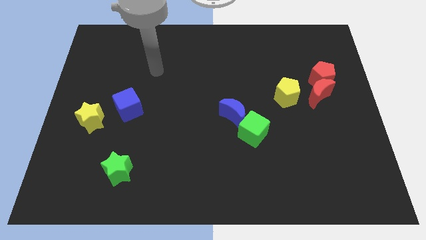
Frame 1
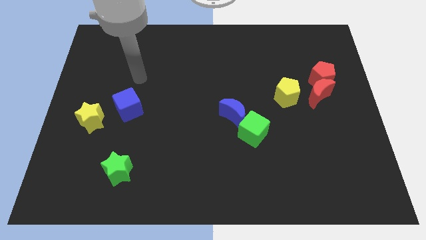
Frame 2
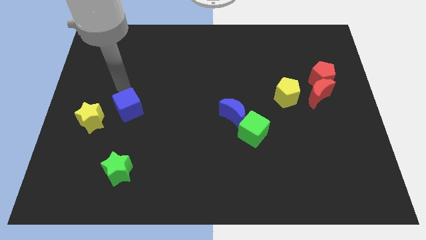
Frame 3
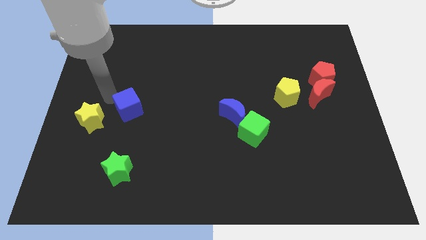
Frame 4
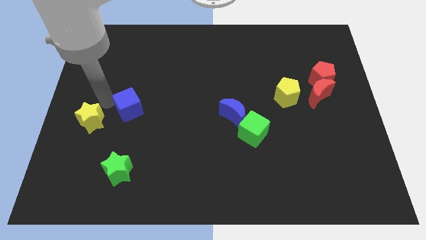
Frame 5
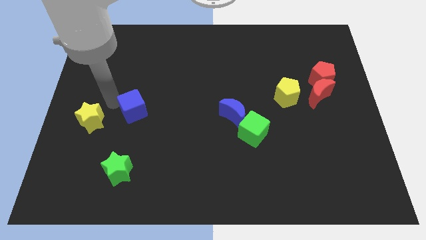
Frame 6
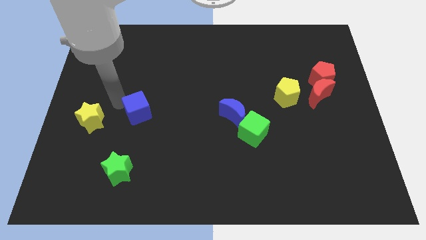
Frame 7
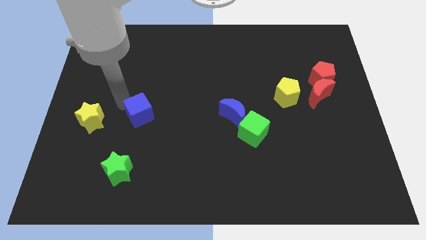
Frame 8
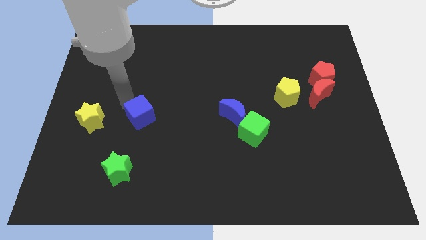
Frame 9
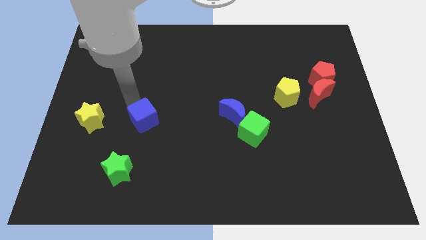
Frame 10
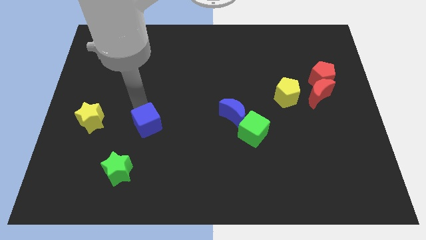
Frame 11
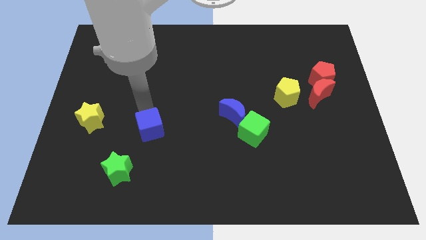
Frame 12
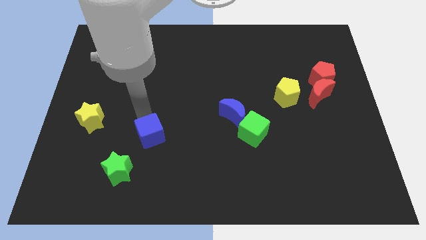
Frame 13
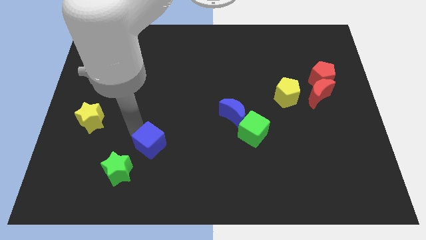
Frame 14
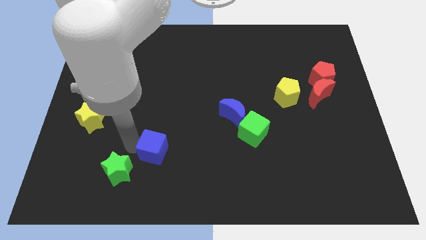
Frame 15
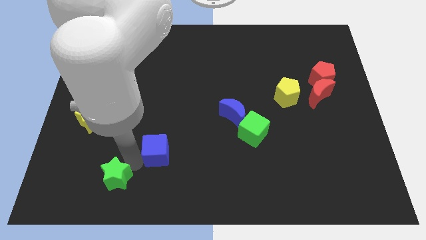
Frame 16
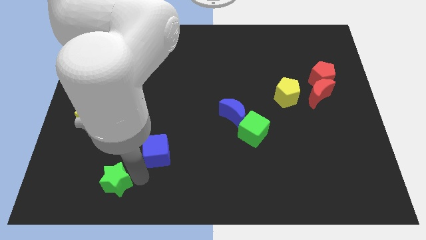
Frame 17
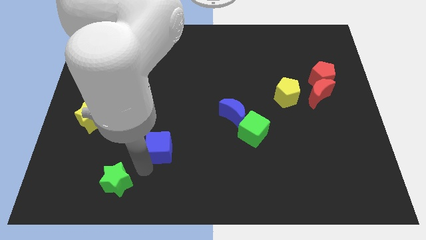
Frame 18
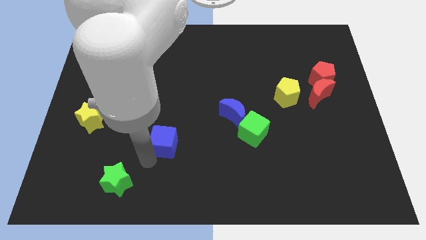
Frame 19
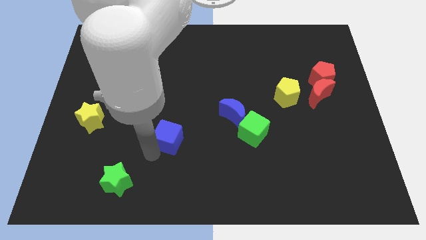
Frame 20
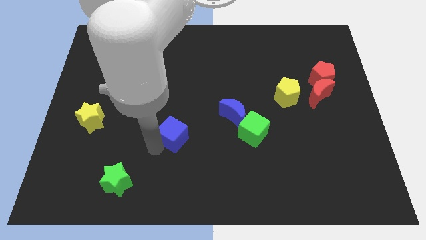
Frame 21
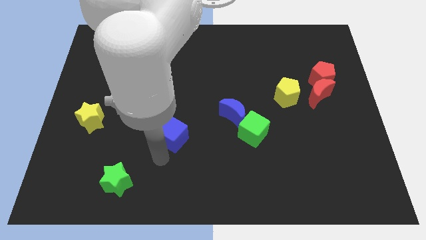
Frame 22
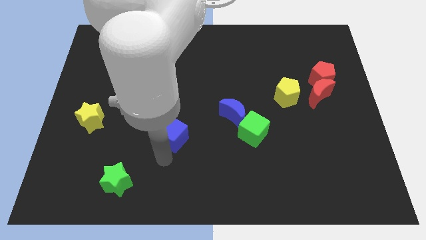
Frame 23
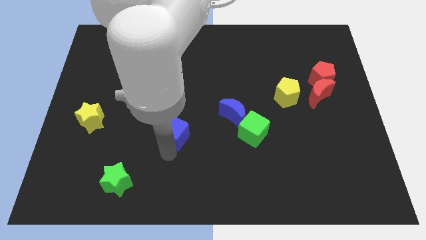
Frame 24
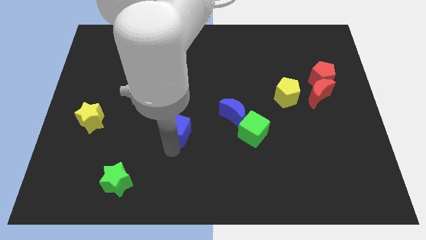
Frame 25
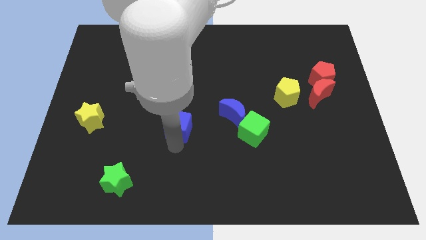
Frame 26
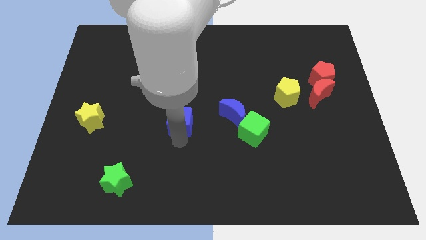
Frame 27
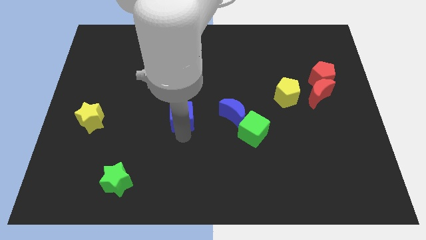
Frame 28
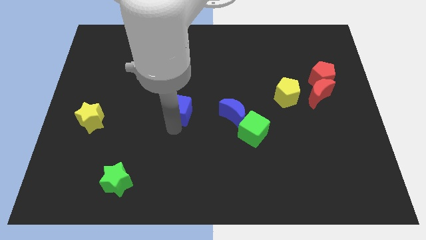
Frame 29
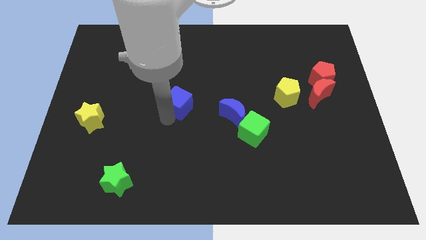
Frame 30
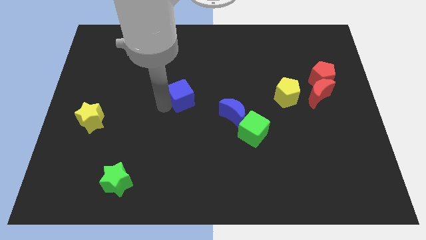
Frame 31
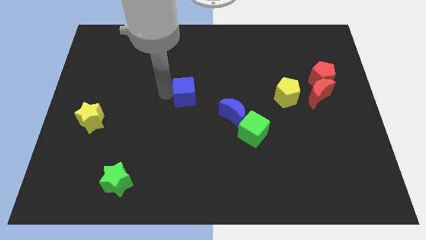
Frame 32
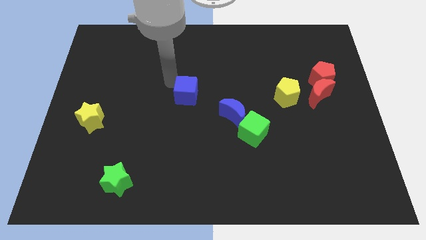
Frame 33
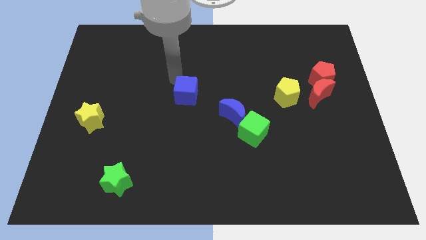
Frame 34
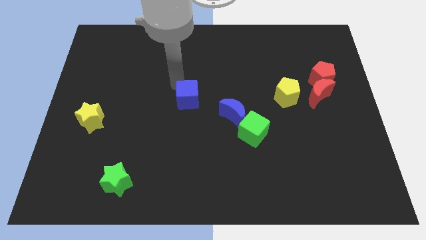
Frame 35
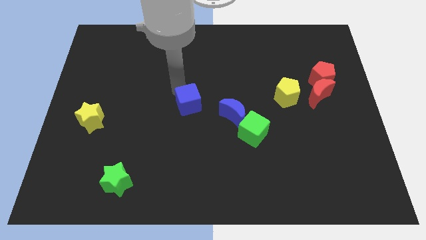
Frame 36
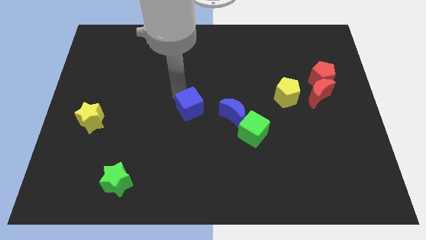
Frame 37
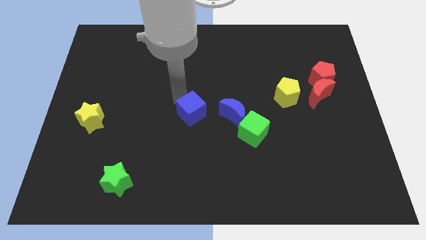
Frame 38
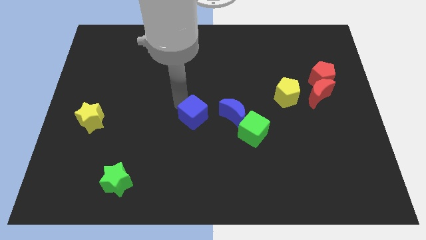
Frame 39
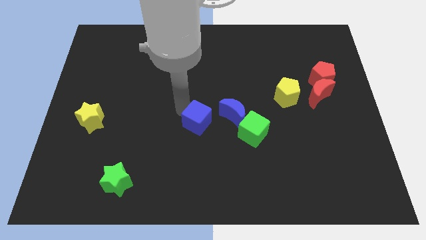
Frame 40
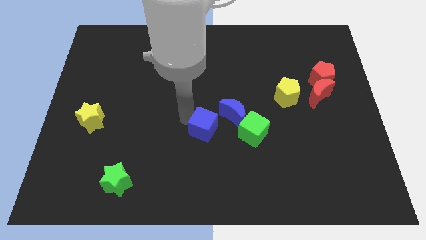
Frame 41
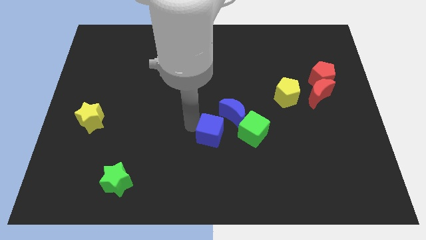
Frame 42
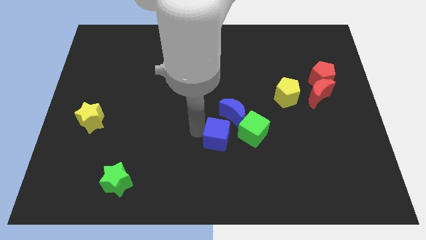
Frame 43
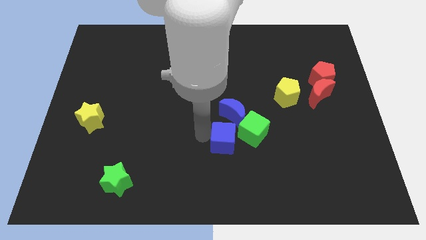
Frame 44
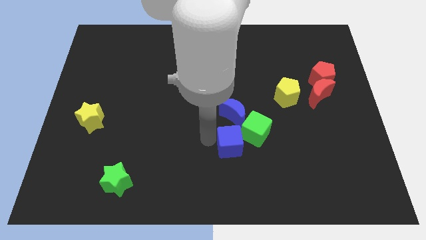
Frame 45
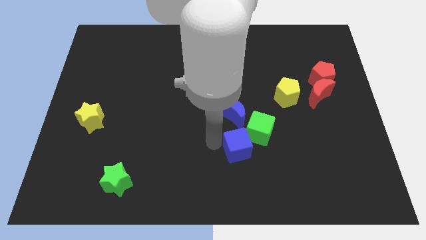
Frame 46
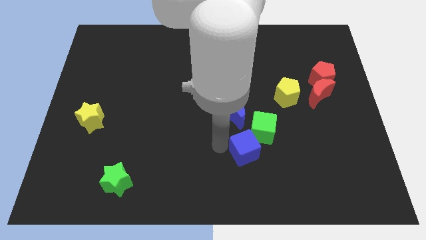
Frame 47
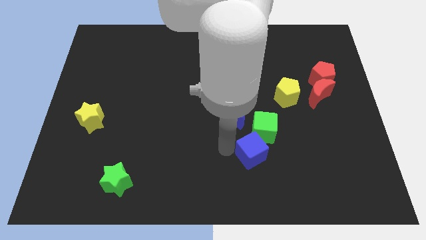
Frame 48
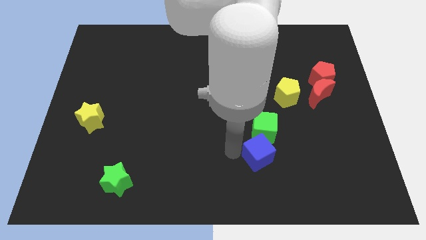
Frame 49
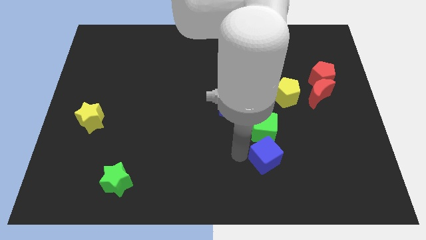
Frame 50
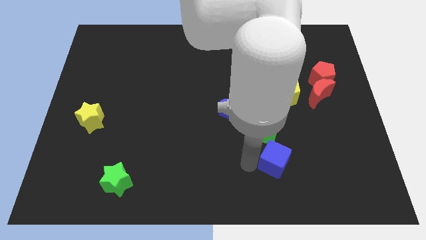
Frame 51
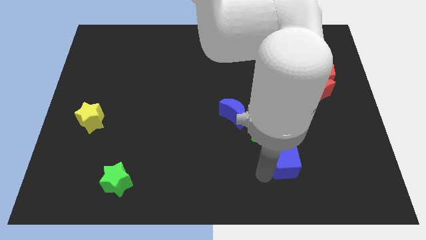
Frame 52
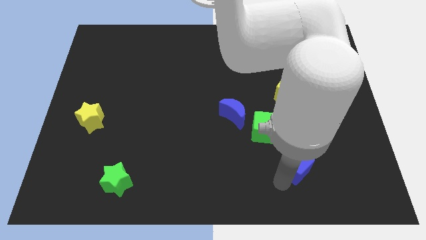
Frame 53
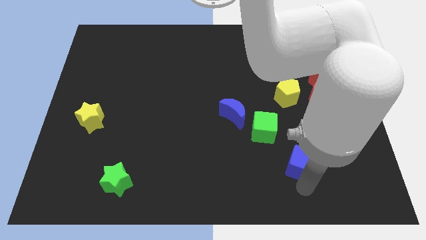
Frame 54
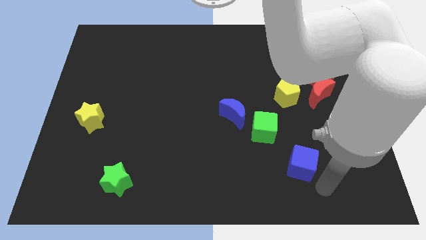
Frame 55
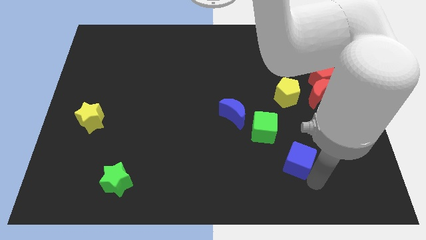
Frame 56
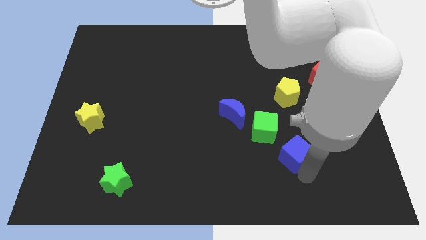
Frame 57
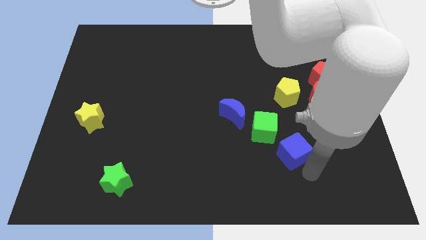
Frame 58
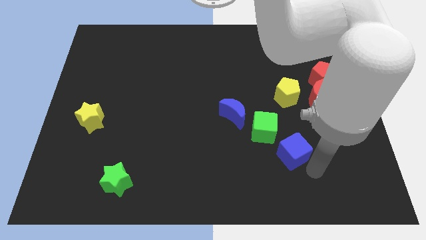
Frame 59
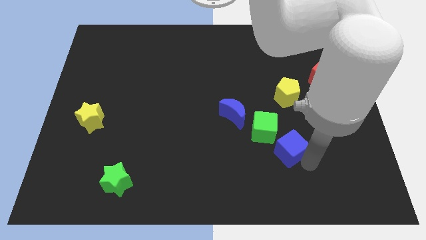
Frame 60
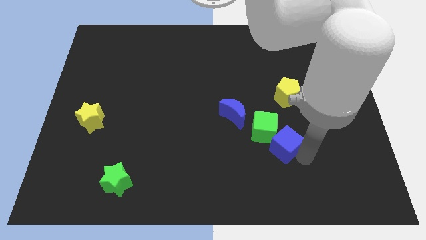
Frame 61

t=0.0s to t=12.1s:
put the blue cube to the green cube

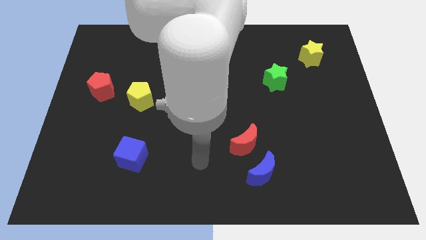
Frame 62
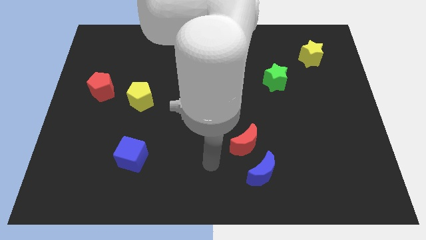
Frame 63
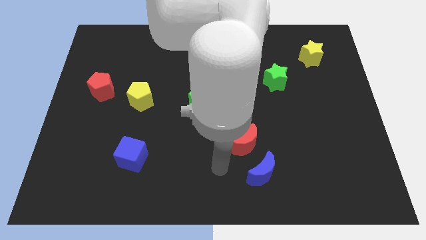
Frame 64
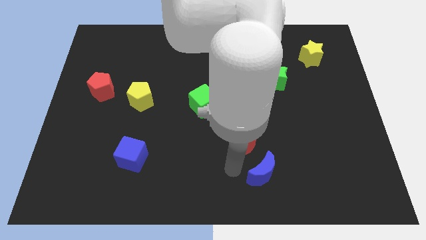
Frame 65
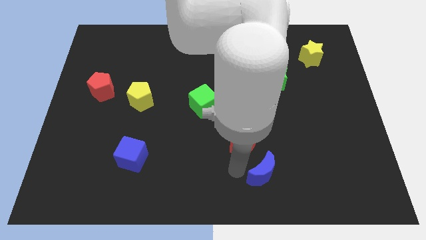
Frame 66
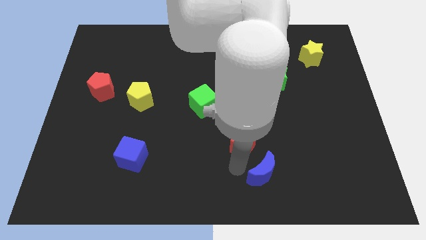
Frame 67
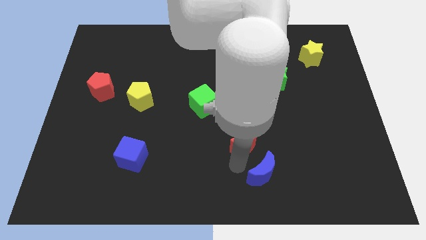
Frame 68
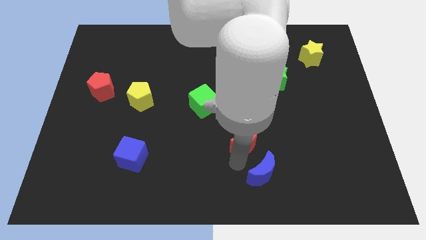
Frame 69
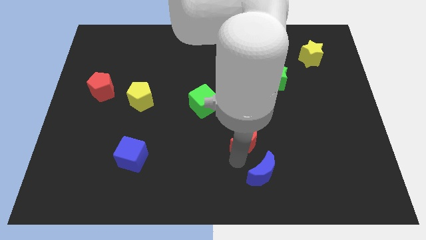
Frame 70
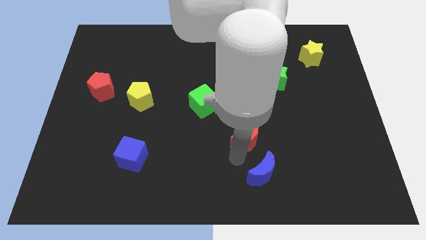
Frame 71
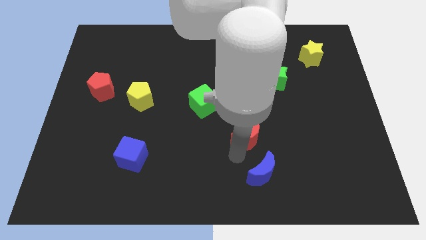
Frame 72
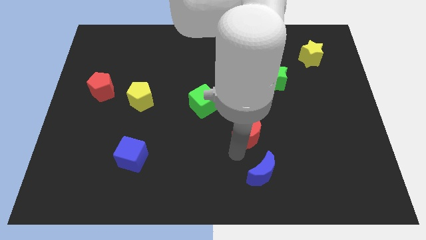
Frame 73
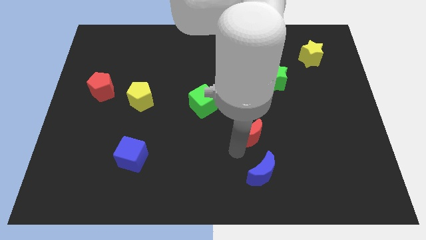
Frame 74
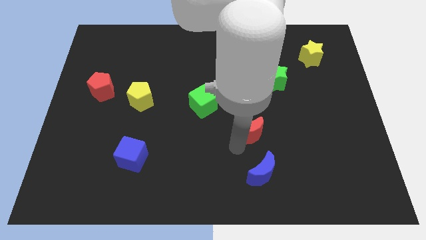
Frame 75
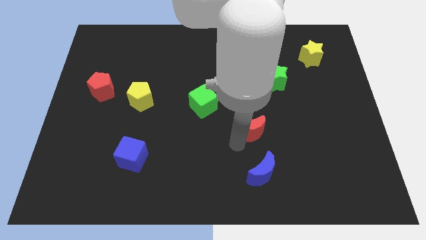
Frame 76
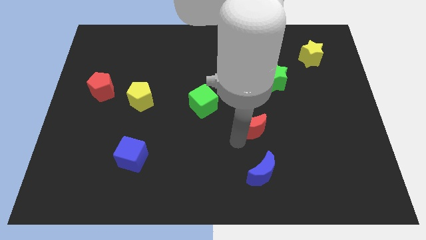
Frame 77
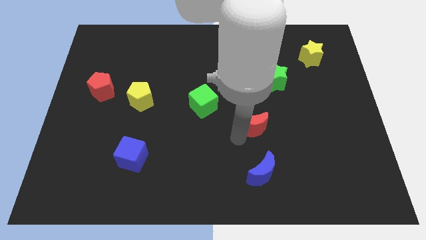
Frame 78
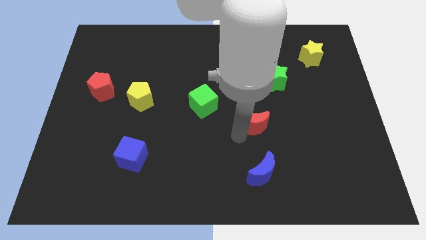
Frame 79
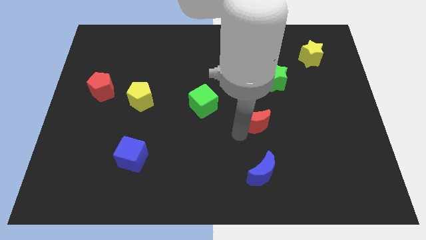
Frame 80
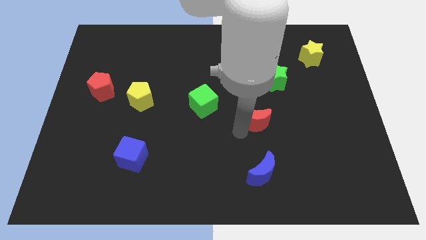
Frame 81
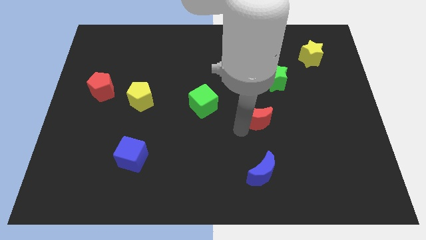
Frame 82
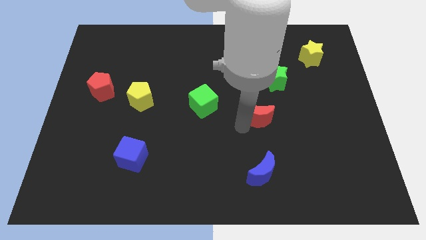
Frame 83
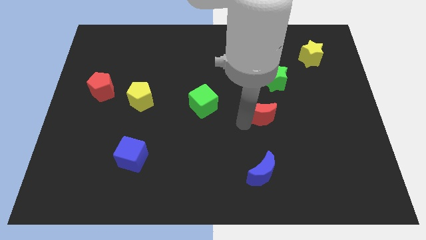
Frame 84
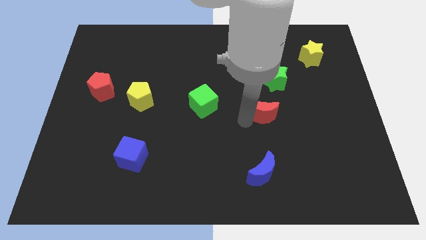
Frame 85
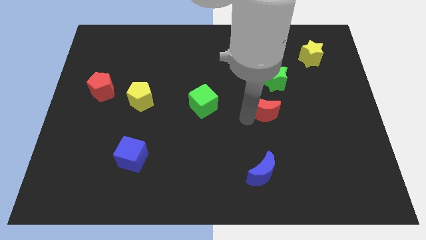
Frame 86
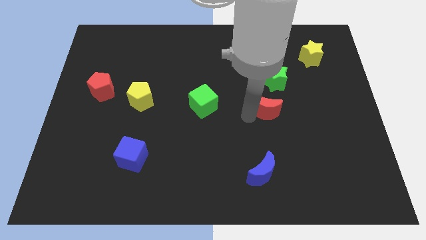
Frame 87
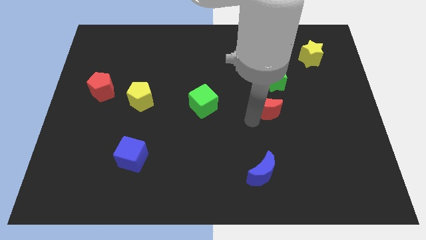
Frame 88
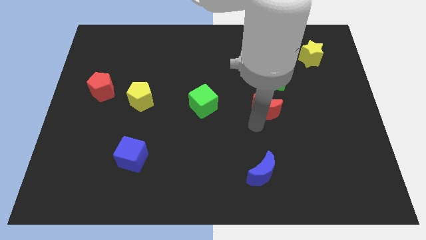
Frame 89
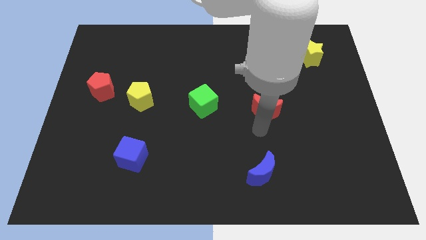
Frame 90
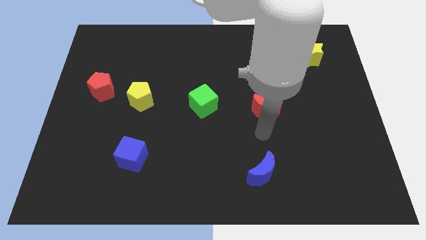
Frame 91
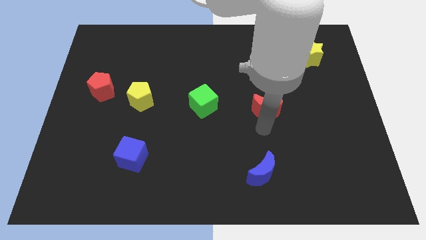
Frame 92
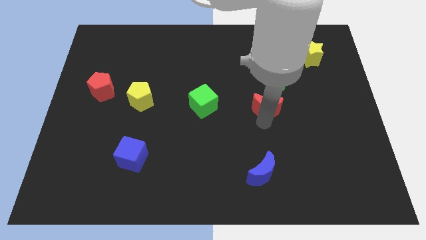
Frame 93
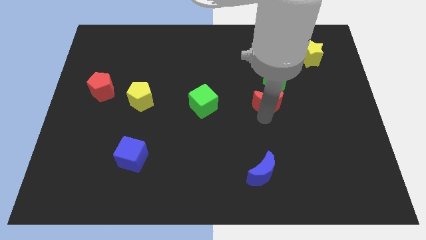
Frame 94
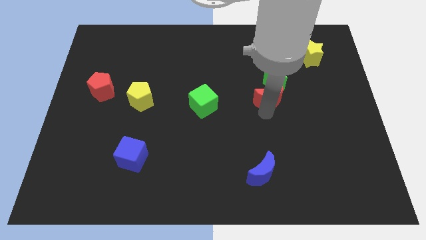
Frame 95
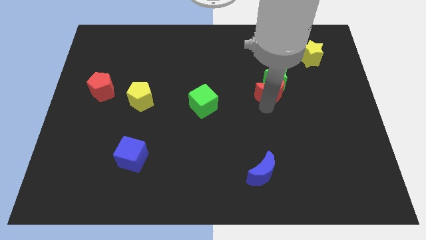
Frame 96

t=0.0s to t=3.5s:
push the red moon next to the green star
